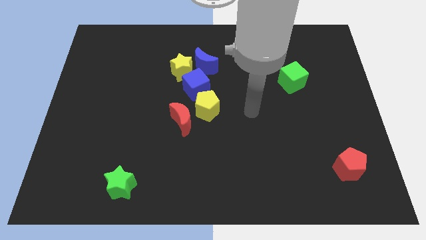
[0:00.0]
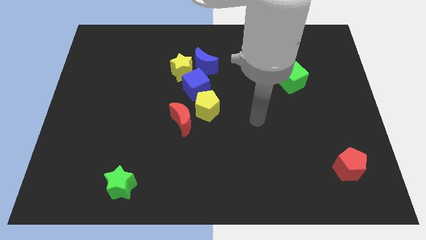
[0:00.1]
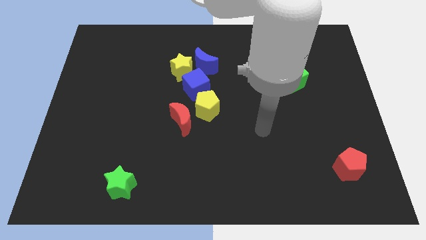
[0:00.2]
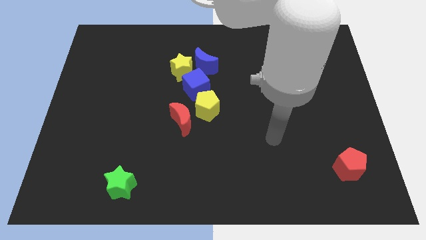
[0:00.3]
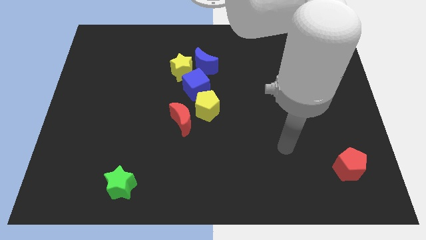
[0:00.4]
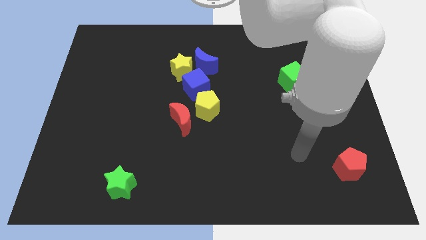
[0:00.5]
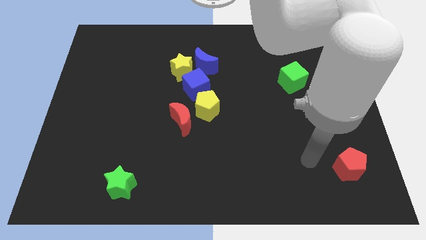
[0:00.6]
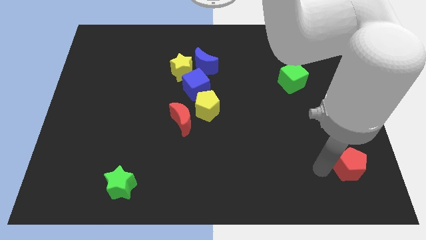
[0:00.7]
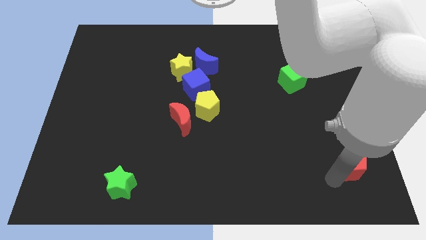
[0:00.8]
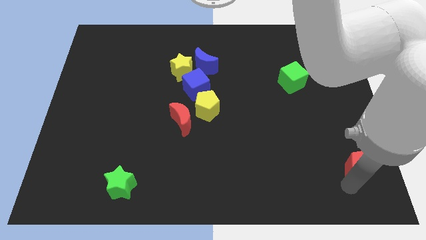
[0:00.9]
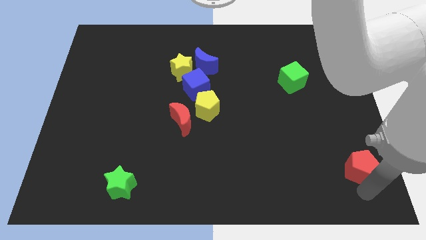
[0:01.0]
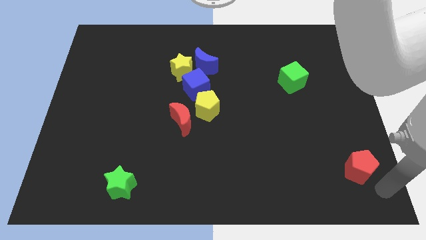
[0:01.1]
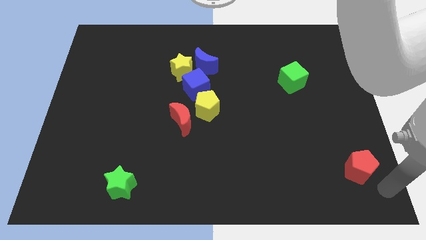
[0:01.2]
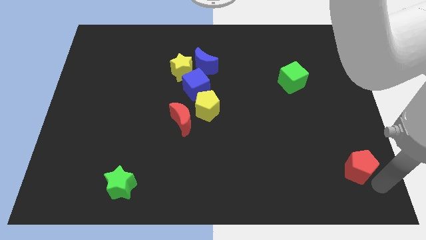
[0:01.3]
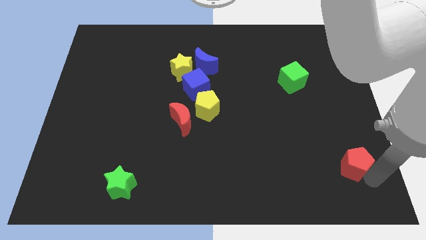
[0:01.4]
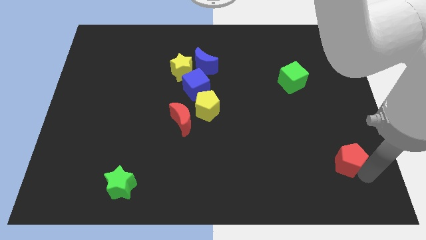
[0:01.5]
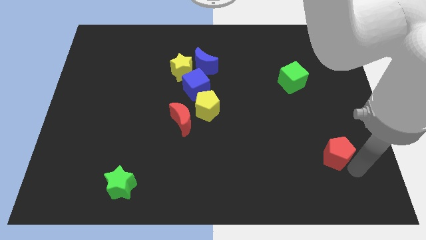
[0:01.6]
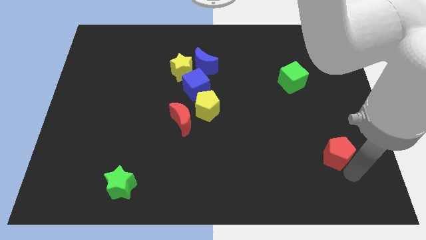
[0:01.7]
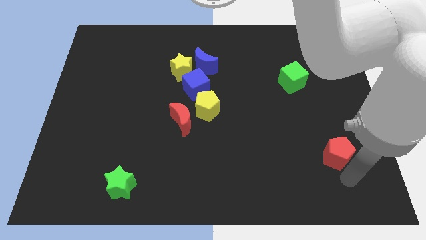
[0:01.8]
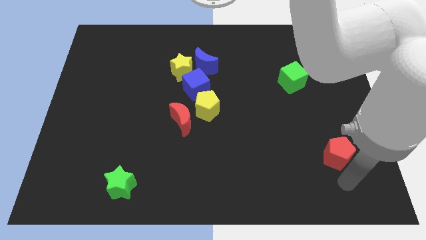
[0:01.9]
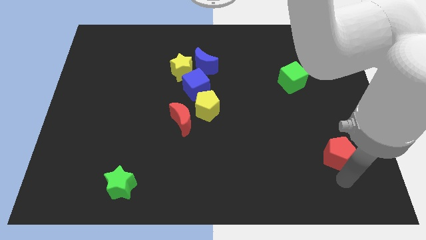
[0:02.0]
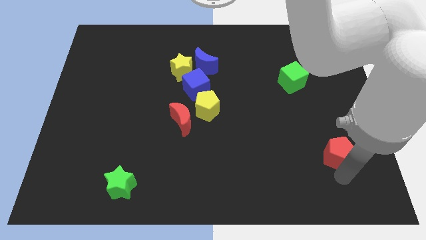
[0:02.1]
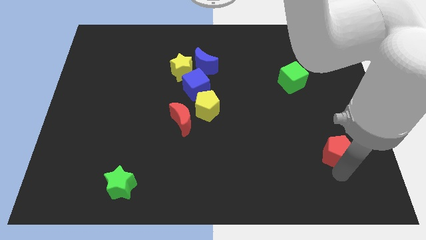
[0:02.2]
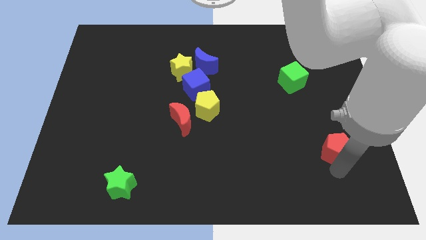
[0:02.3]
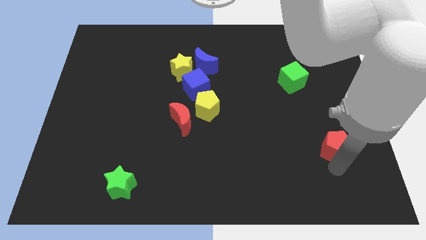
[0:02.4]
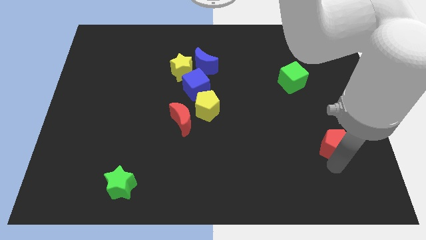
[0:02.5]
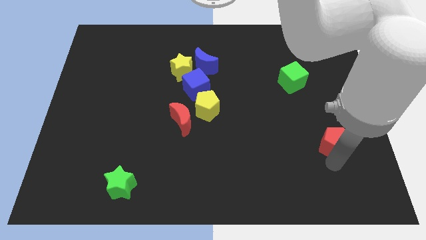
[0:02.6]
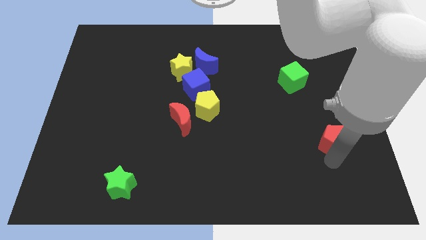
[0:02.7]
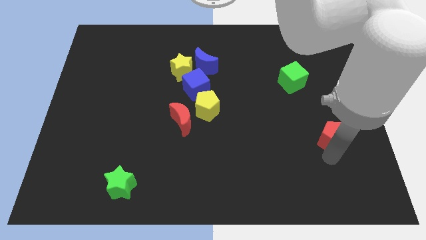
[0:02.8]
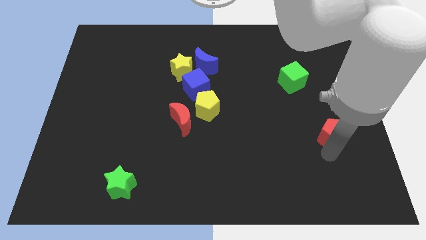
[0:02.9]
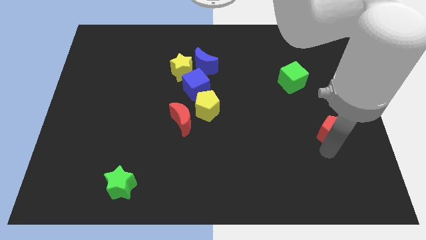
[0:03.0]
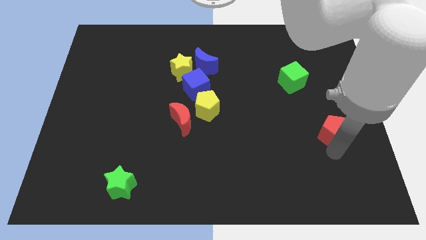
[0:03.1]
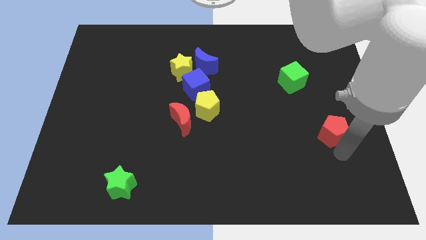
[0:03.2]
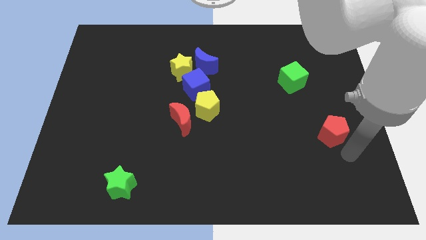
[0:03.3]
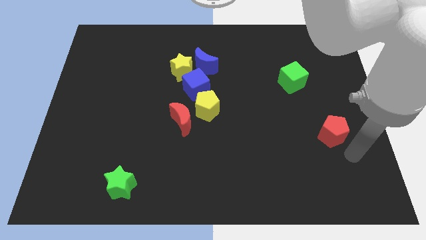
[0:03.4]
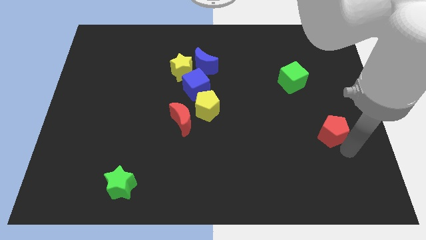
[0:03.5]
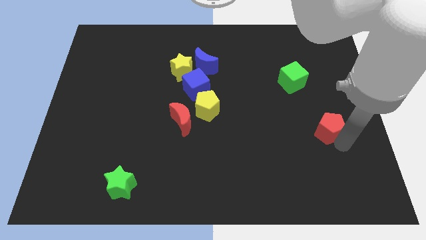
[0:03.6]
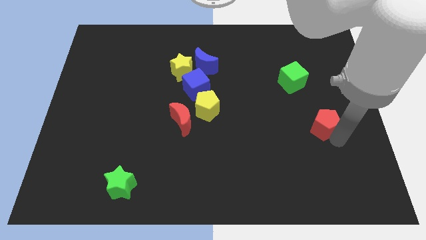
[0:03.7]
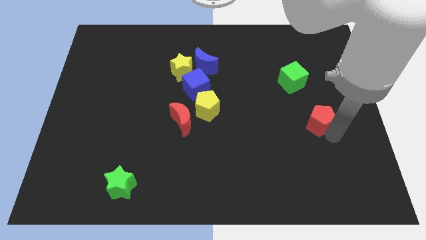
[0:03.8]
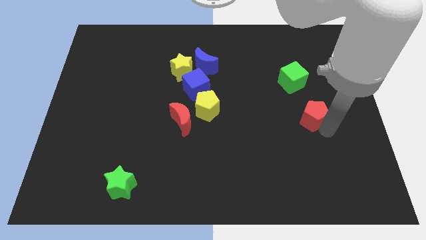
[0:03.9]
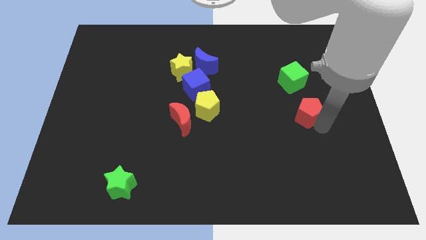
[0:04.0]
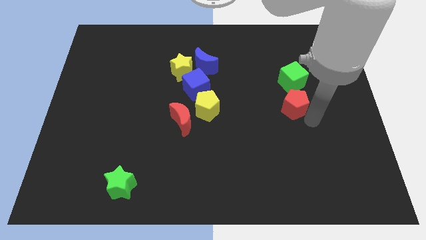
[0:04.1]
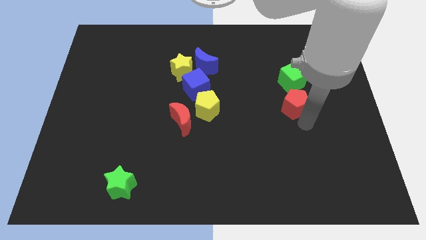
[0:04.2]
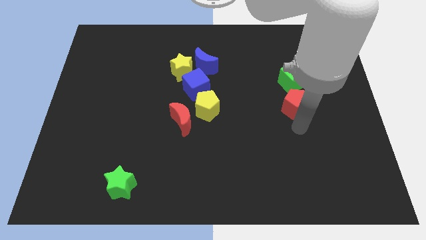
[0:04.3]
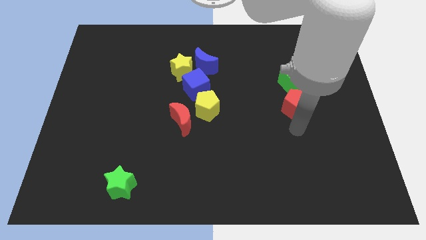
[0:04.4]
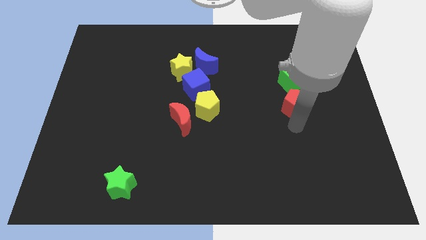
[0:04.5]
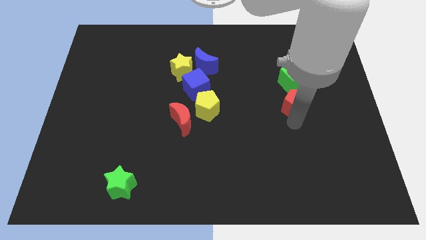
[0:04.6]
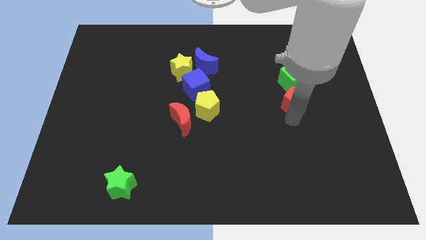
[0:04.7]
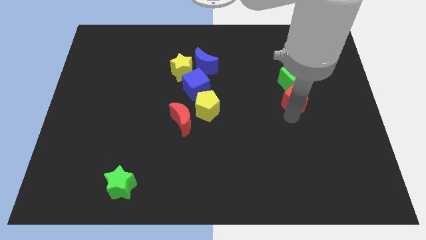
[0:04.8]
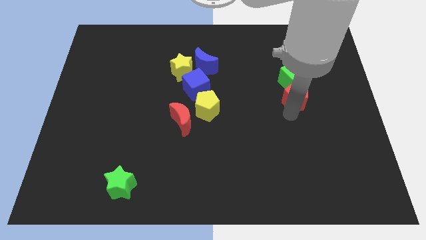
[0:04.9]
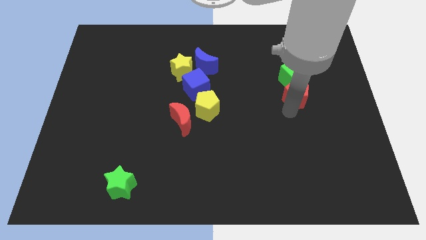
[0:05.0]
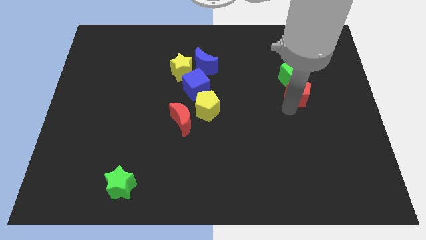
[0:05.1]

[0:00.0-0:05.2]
put the red pentagon close to the green cube

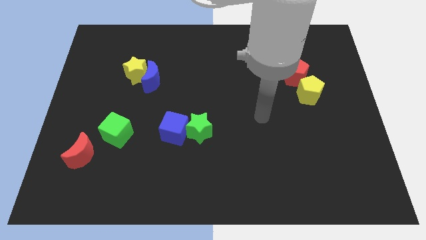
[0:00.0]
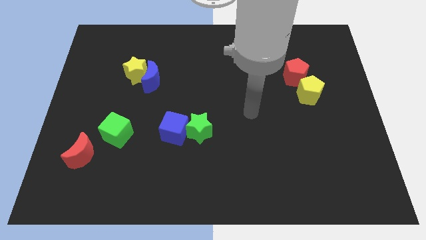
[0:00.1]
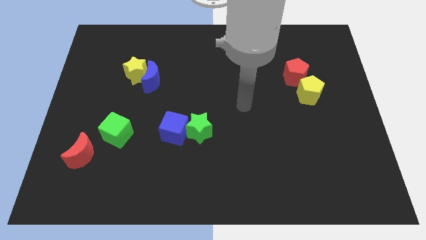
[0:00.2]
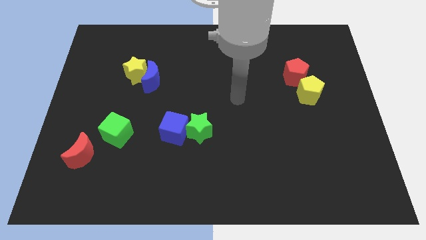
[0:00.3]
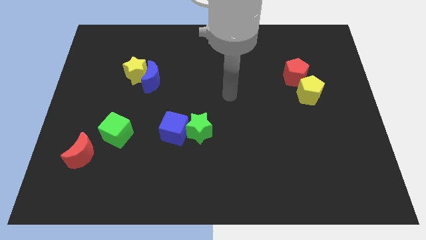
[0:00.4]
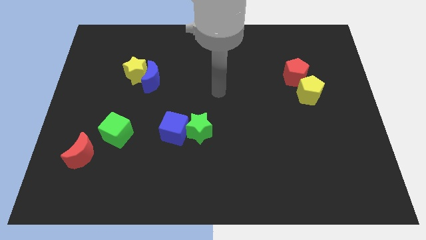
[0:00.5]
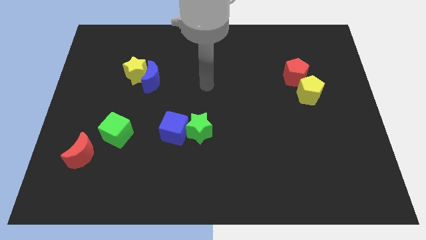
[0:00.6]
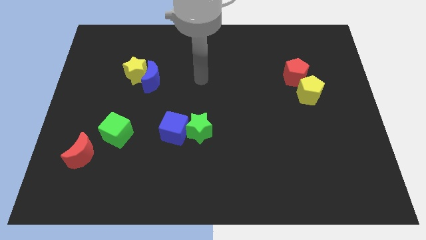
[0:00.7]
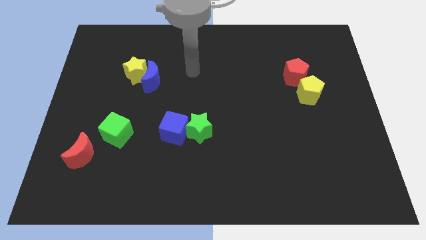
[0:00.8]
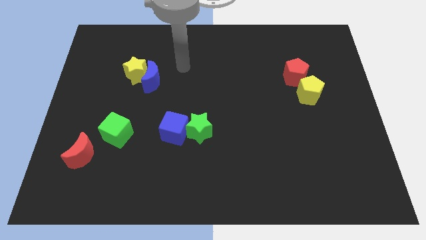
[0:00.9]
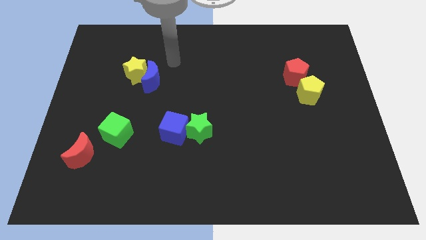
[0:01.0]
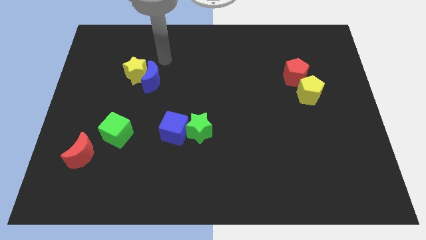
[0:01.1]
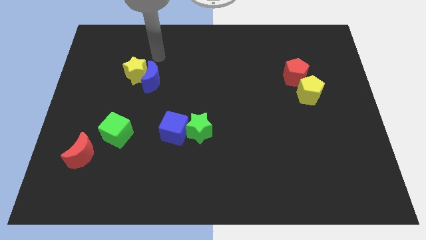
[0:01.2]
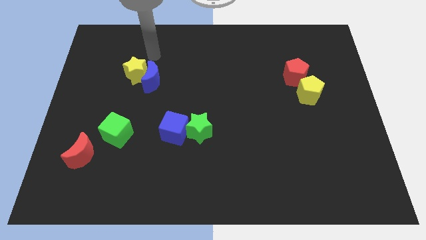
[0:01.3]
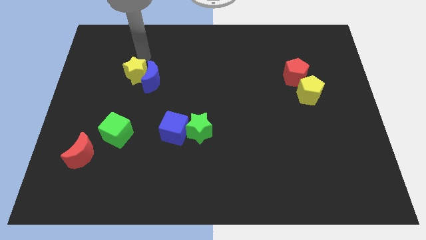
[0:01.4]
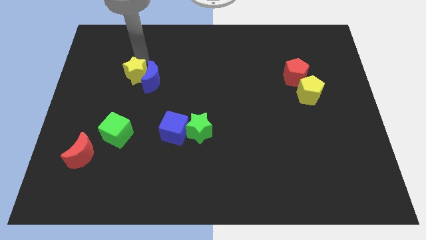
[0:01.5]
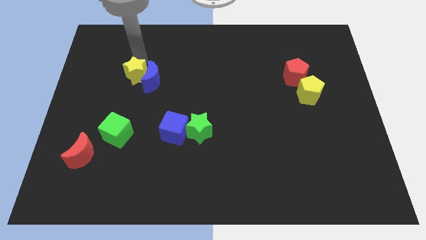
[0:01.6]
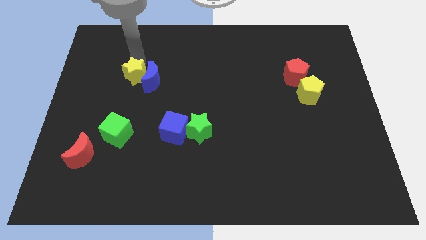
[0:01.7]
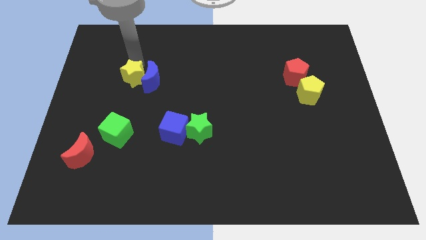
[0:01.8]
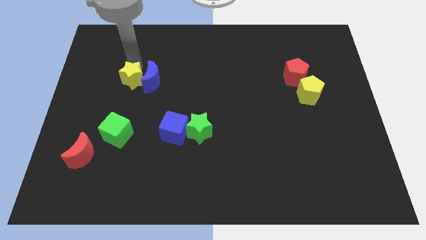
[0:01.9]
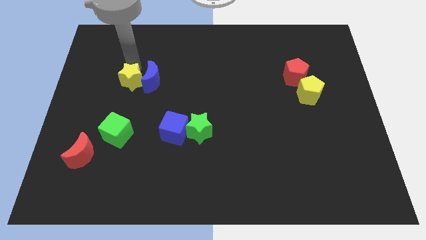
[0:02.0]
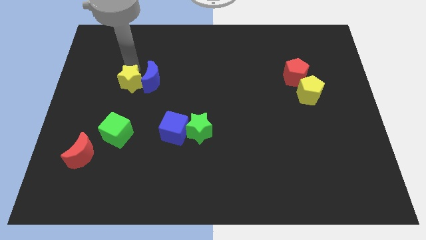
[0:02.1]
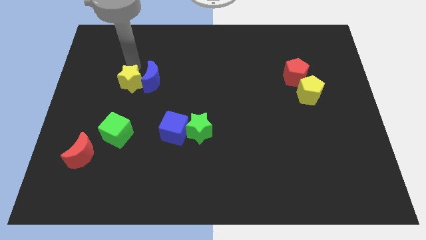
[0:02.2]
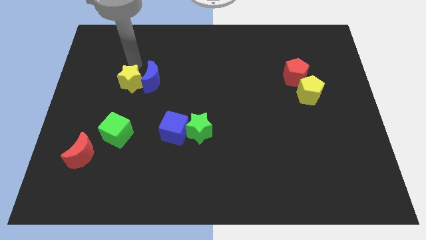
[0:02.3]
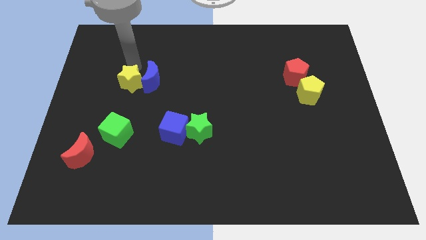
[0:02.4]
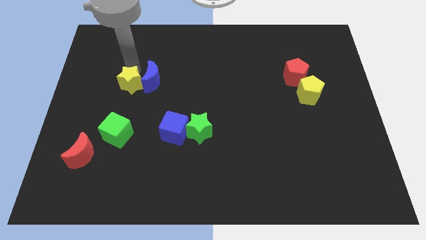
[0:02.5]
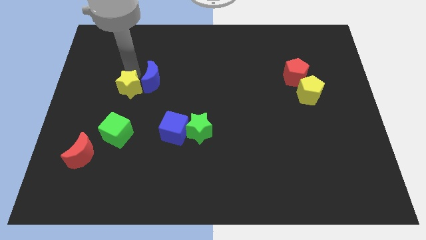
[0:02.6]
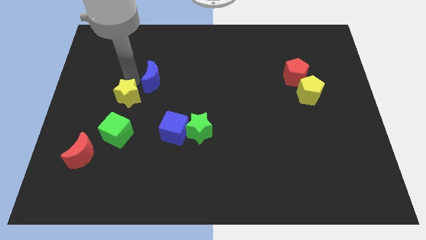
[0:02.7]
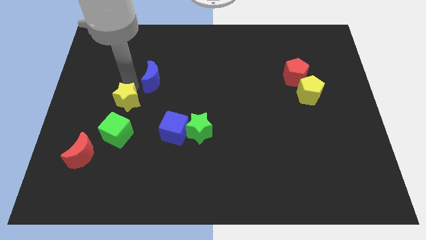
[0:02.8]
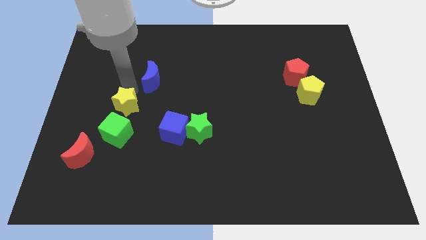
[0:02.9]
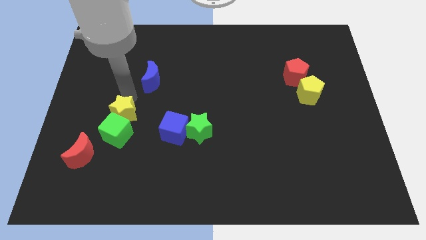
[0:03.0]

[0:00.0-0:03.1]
put the yellow star towards the green cube
